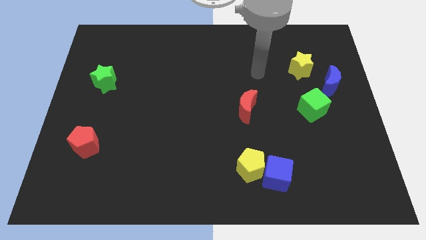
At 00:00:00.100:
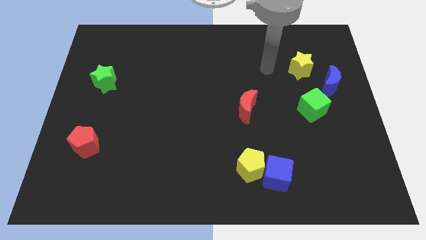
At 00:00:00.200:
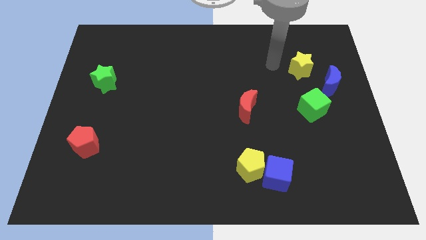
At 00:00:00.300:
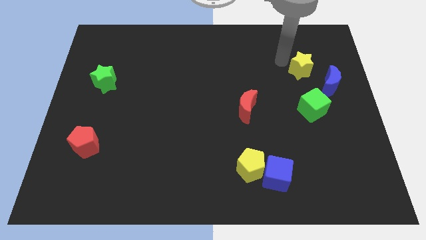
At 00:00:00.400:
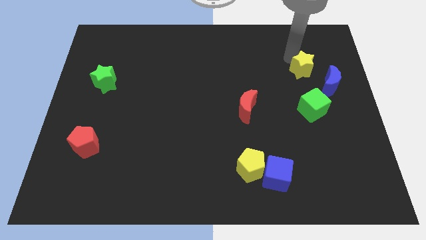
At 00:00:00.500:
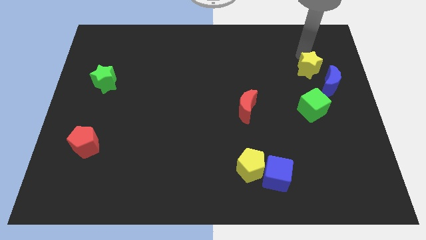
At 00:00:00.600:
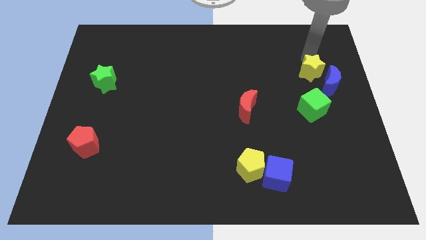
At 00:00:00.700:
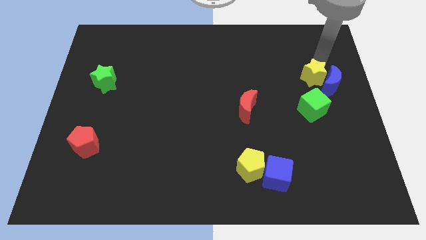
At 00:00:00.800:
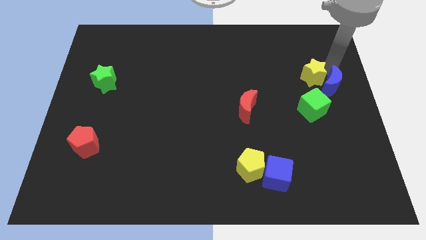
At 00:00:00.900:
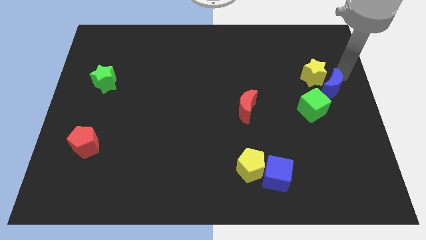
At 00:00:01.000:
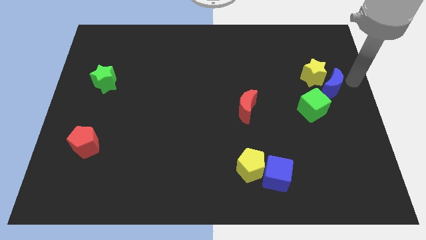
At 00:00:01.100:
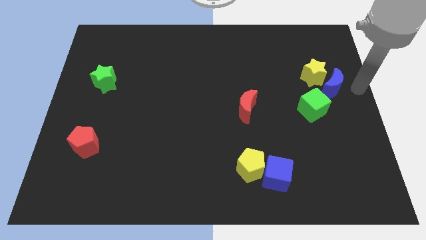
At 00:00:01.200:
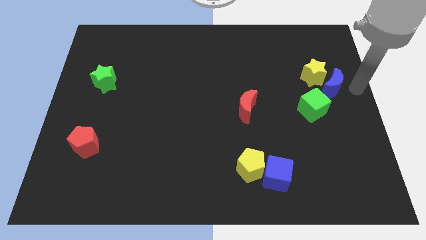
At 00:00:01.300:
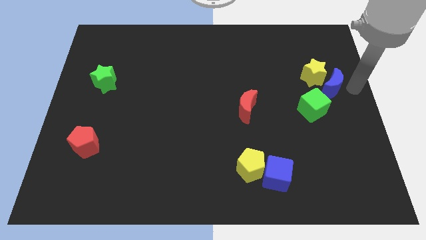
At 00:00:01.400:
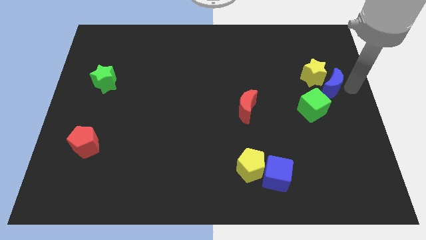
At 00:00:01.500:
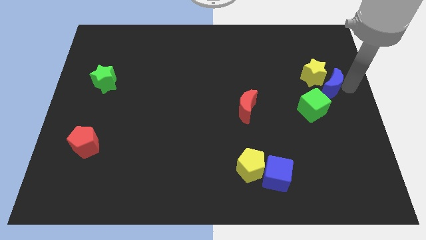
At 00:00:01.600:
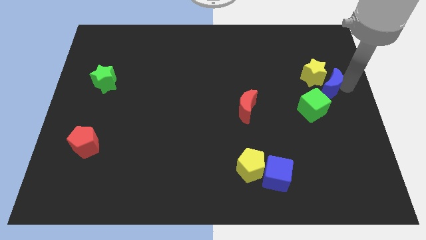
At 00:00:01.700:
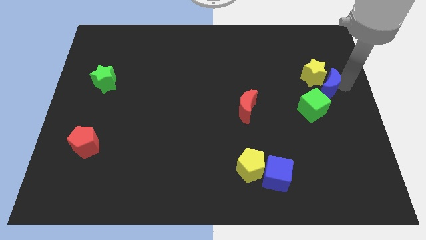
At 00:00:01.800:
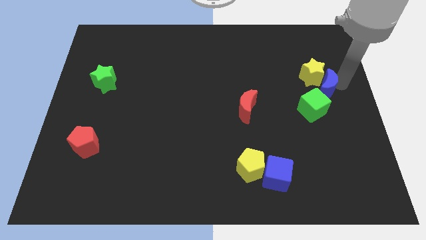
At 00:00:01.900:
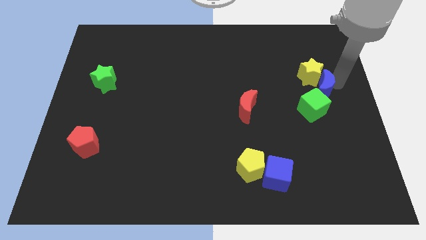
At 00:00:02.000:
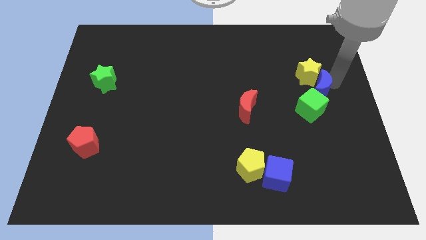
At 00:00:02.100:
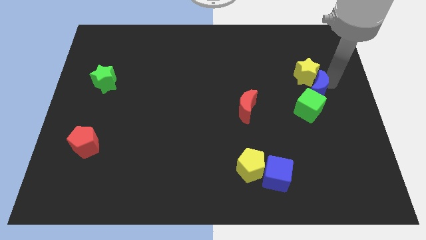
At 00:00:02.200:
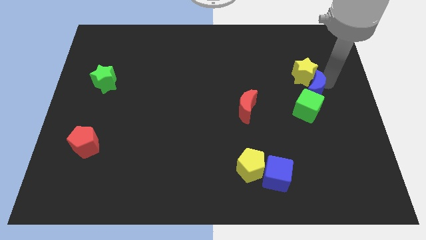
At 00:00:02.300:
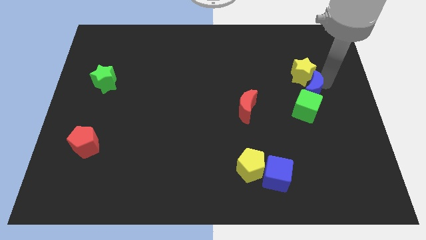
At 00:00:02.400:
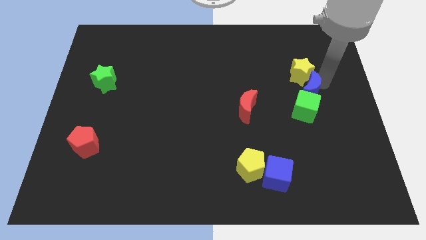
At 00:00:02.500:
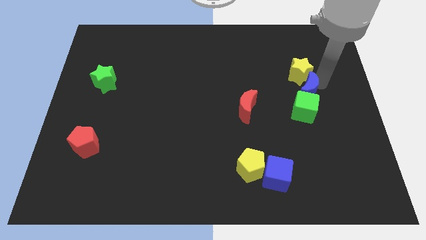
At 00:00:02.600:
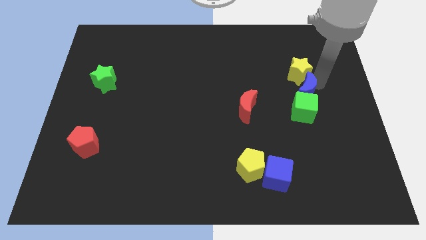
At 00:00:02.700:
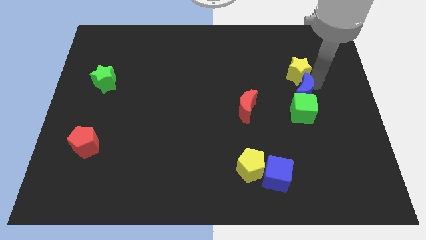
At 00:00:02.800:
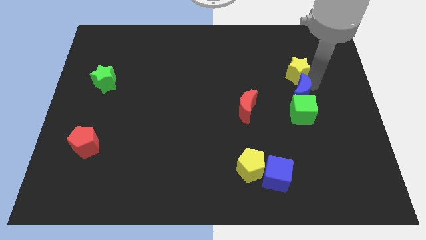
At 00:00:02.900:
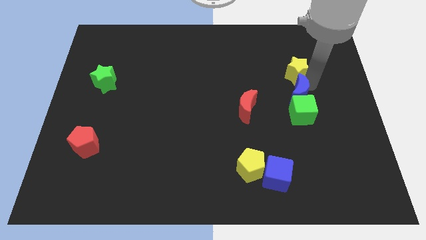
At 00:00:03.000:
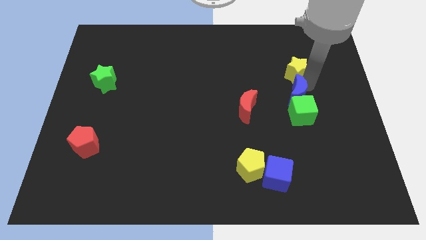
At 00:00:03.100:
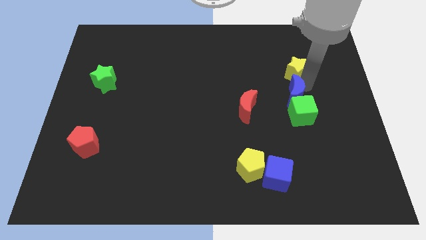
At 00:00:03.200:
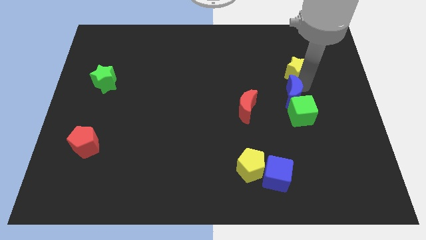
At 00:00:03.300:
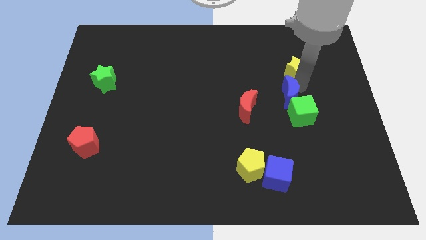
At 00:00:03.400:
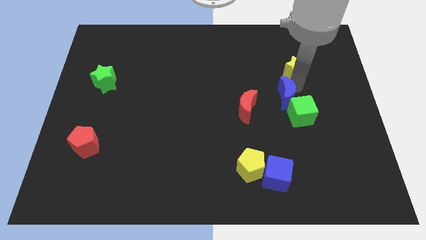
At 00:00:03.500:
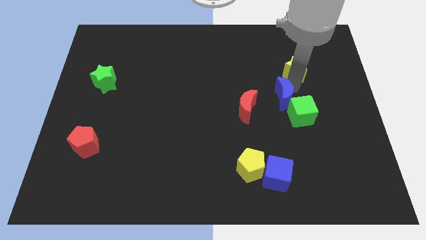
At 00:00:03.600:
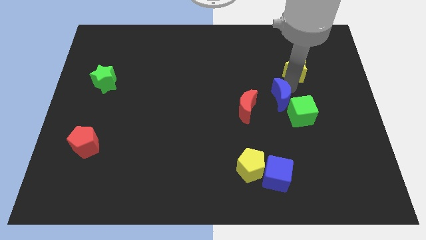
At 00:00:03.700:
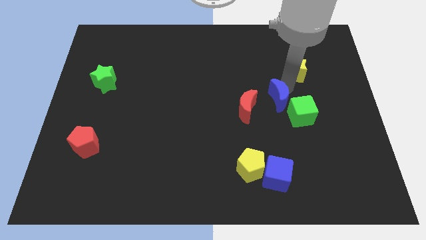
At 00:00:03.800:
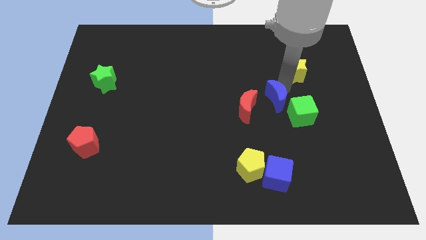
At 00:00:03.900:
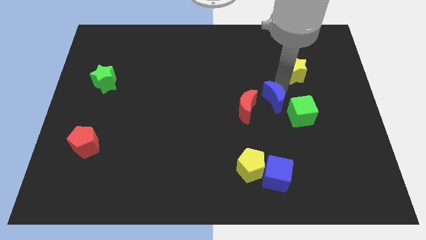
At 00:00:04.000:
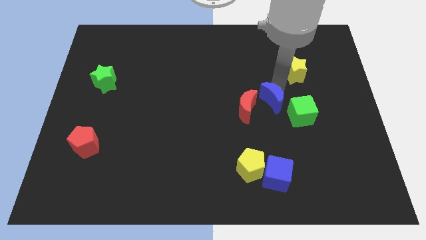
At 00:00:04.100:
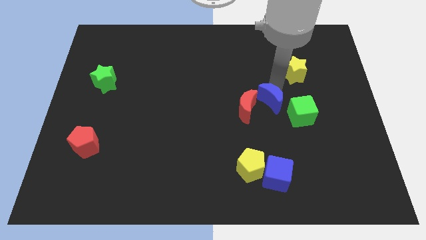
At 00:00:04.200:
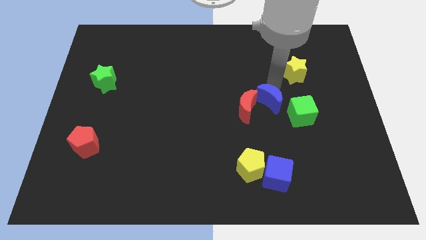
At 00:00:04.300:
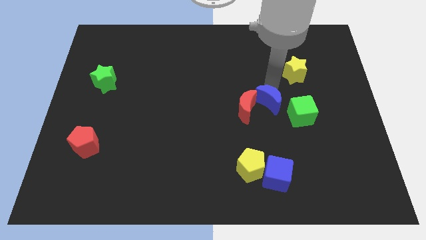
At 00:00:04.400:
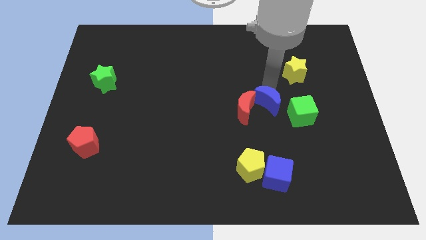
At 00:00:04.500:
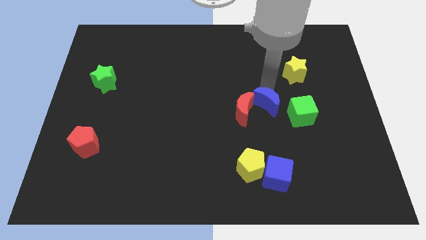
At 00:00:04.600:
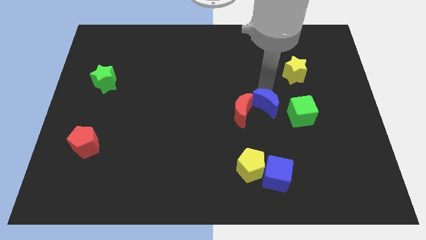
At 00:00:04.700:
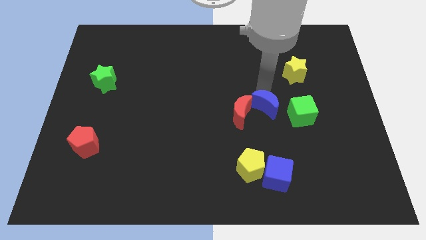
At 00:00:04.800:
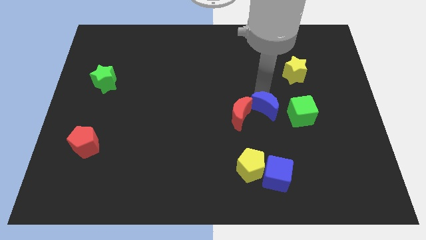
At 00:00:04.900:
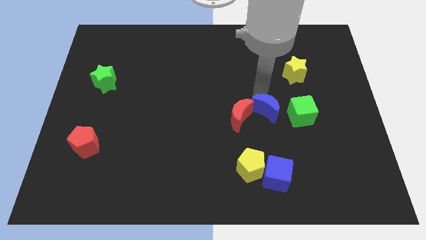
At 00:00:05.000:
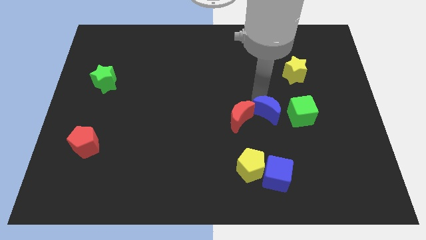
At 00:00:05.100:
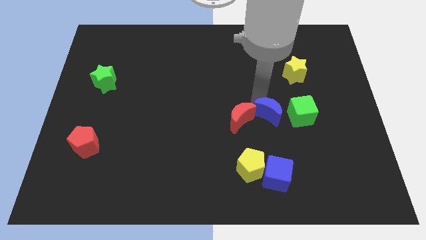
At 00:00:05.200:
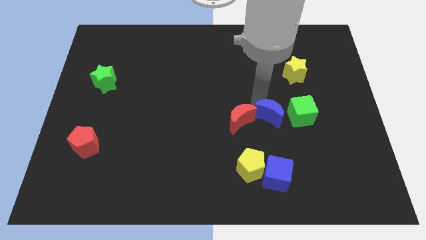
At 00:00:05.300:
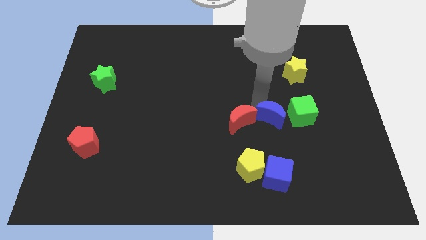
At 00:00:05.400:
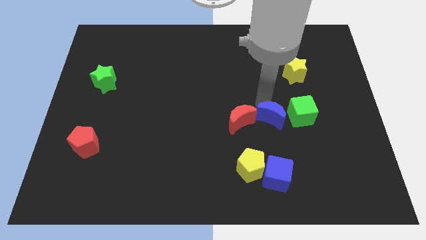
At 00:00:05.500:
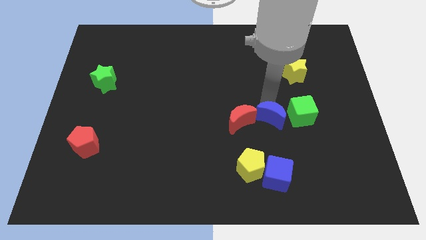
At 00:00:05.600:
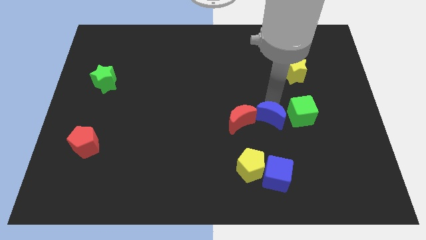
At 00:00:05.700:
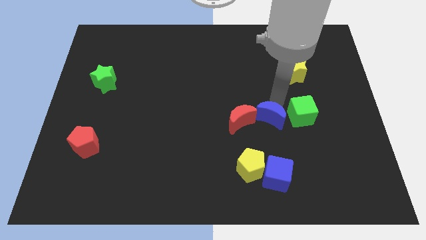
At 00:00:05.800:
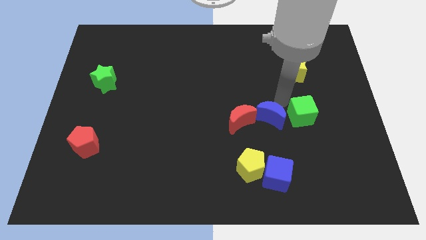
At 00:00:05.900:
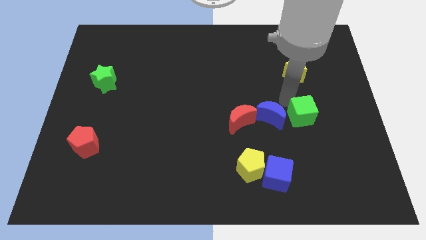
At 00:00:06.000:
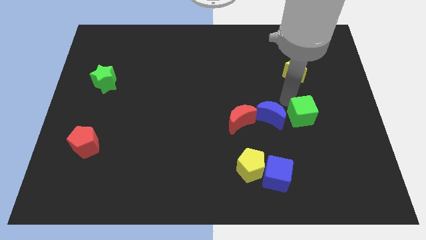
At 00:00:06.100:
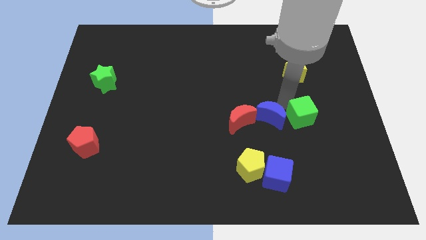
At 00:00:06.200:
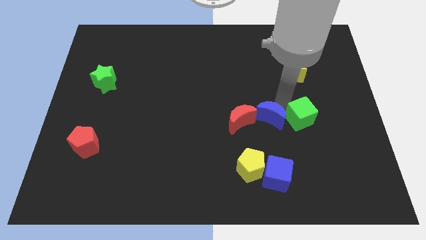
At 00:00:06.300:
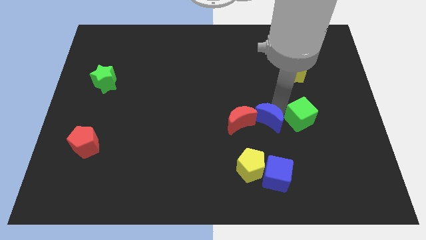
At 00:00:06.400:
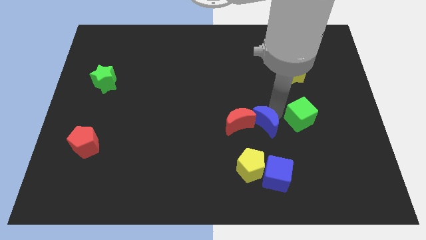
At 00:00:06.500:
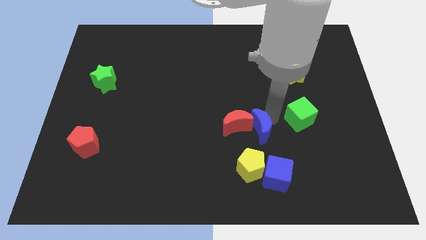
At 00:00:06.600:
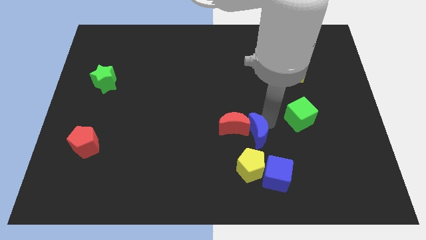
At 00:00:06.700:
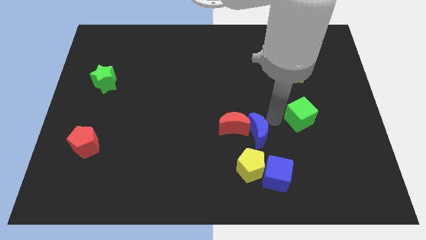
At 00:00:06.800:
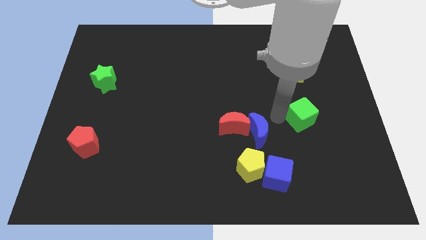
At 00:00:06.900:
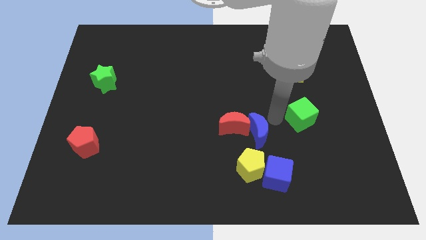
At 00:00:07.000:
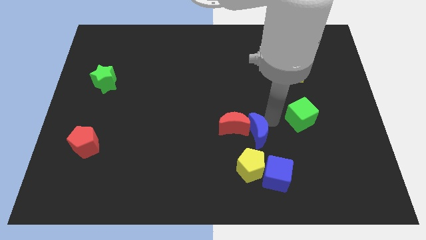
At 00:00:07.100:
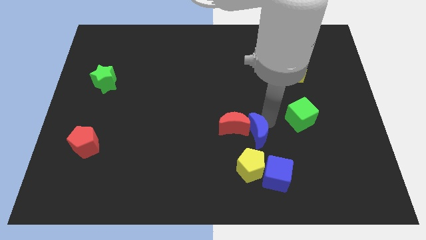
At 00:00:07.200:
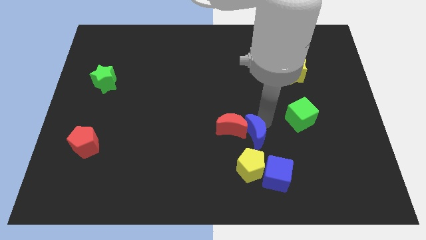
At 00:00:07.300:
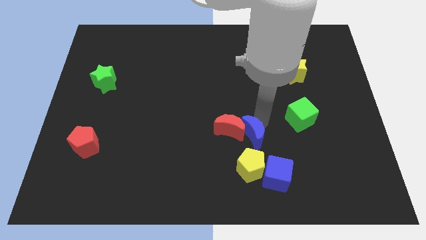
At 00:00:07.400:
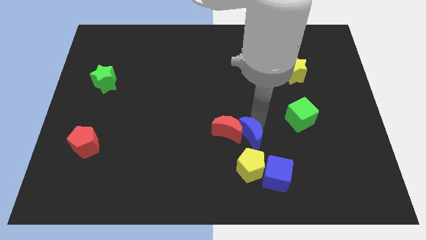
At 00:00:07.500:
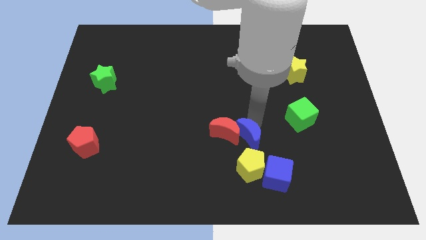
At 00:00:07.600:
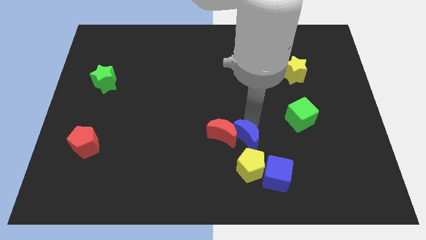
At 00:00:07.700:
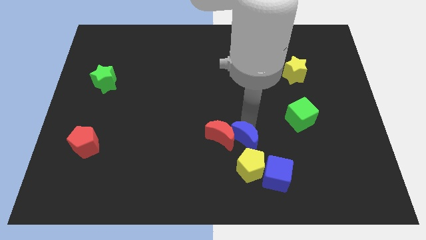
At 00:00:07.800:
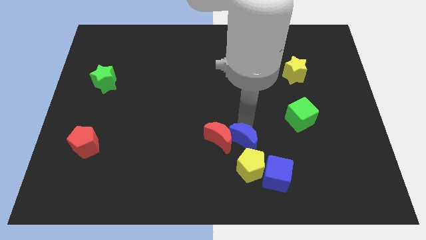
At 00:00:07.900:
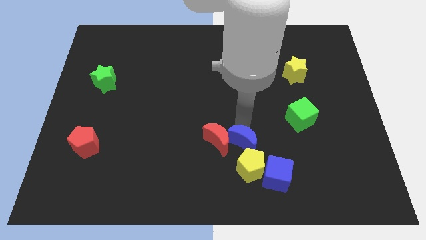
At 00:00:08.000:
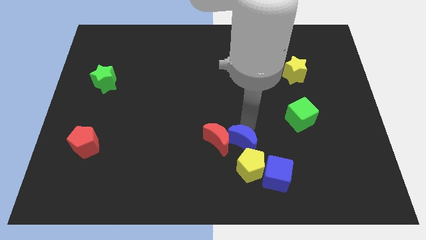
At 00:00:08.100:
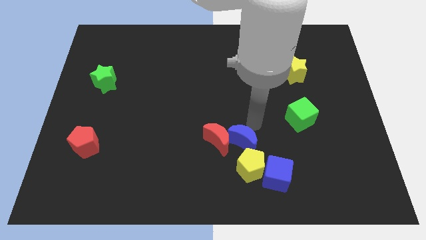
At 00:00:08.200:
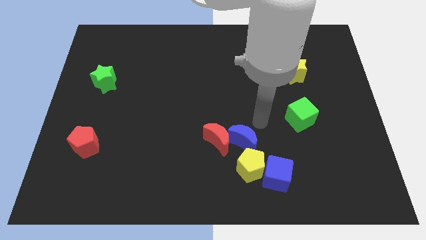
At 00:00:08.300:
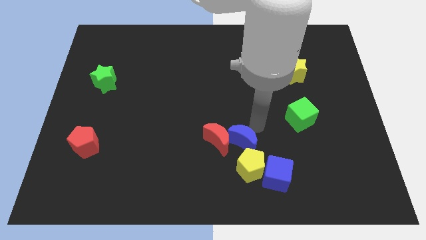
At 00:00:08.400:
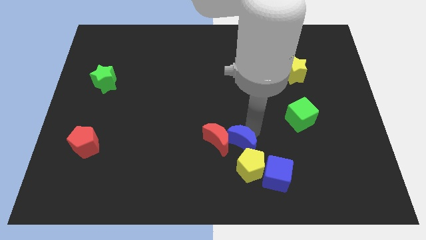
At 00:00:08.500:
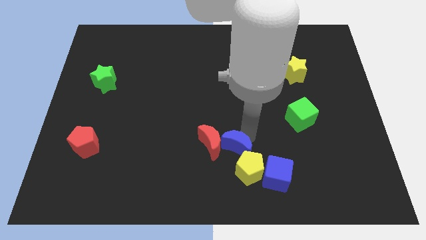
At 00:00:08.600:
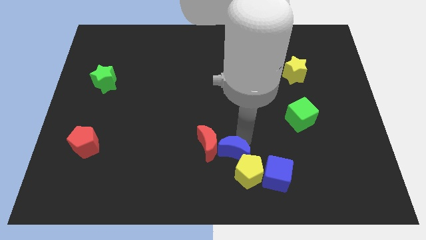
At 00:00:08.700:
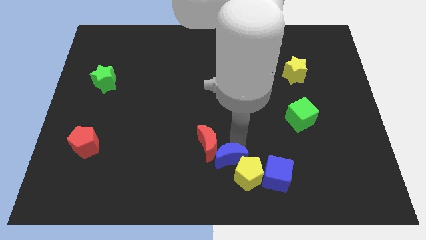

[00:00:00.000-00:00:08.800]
put the blue moon to the bottom side
